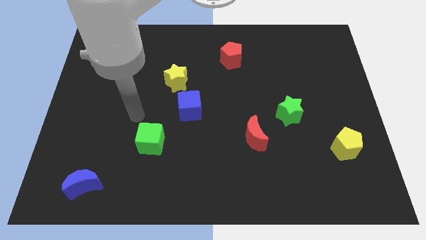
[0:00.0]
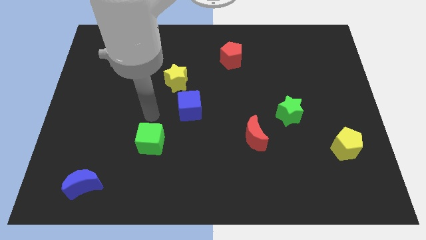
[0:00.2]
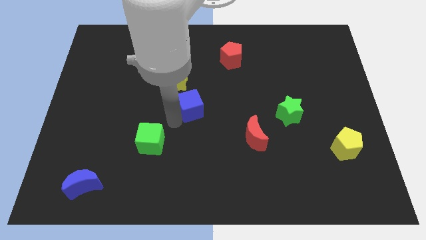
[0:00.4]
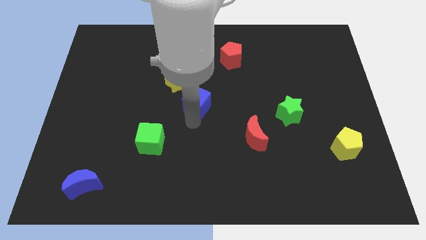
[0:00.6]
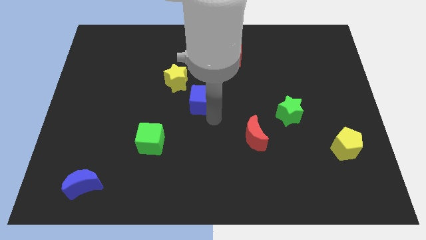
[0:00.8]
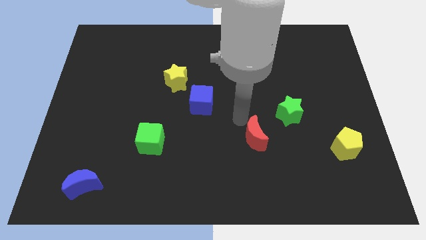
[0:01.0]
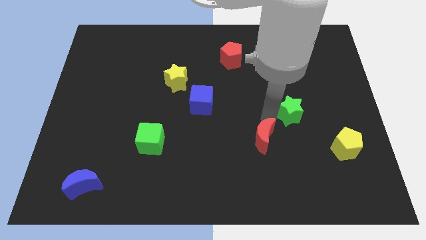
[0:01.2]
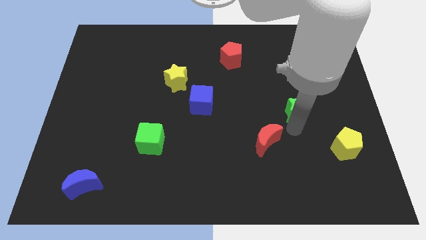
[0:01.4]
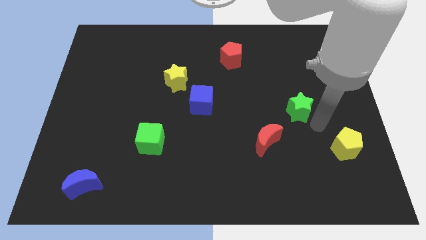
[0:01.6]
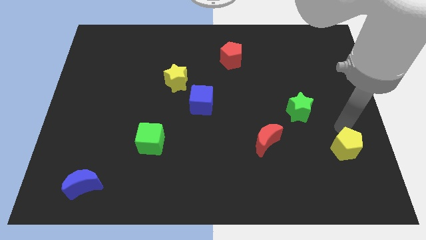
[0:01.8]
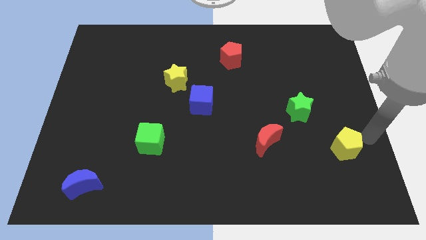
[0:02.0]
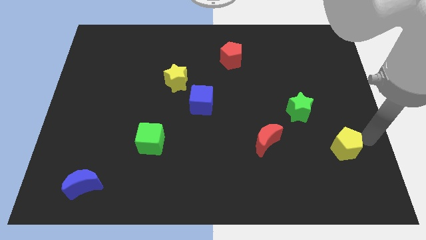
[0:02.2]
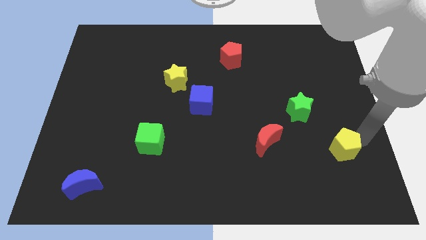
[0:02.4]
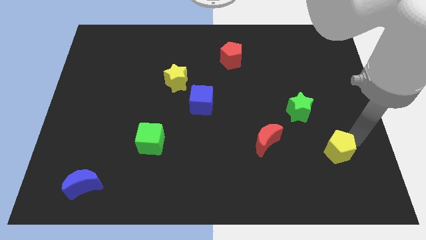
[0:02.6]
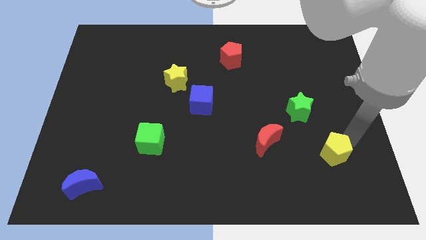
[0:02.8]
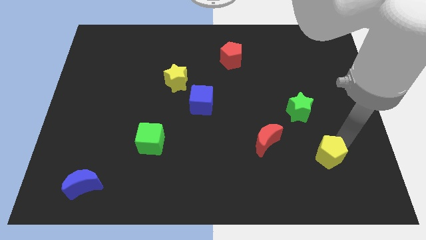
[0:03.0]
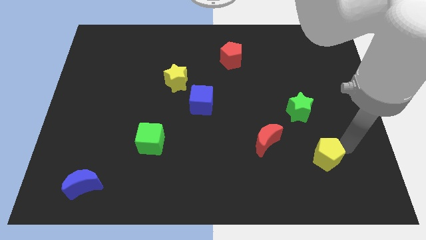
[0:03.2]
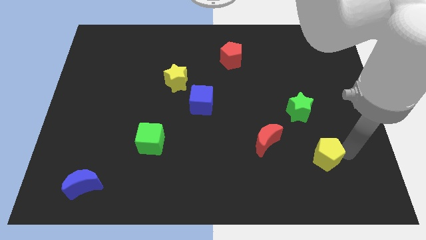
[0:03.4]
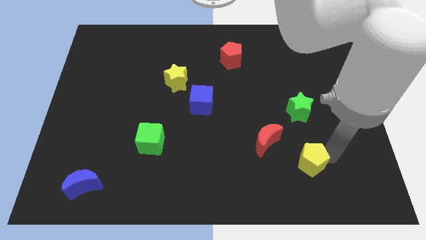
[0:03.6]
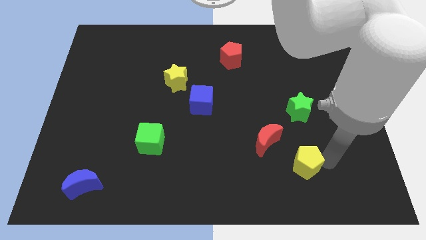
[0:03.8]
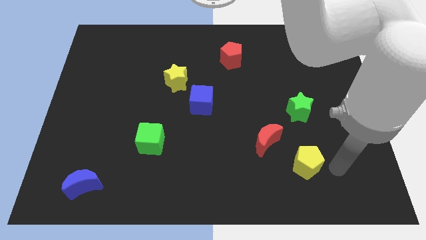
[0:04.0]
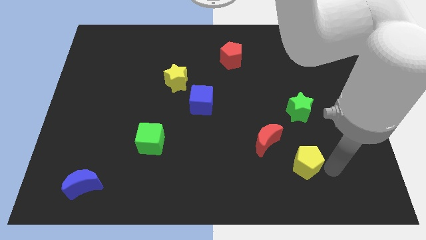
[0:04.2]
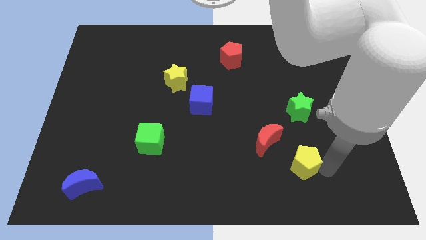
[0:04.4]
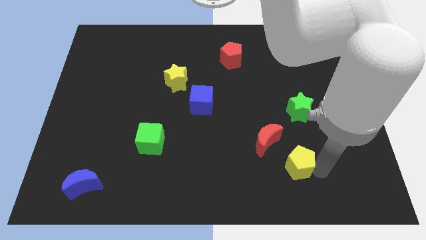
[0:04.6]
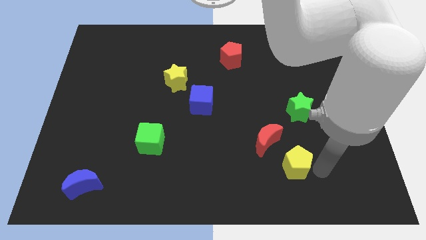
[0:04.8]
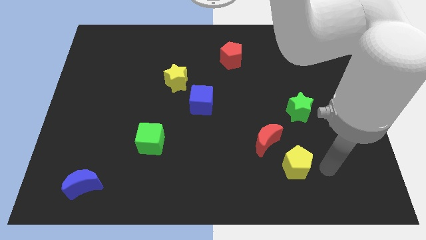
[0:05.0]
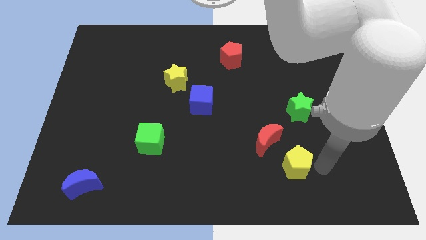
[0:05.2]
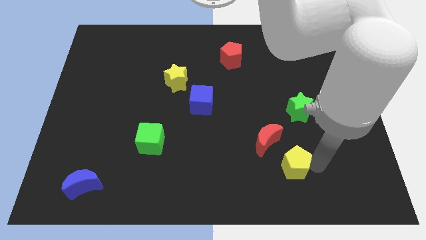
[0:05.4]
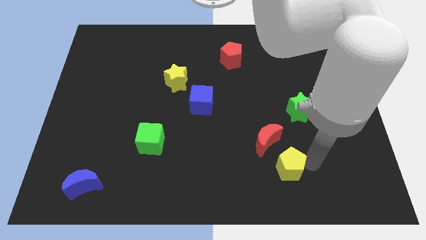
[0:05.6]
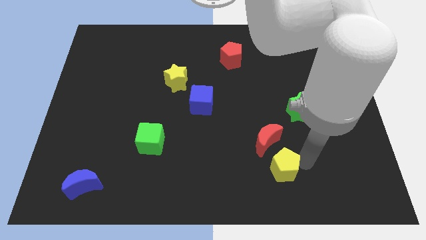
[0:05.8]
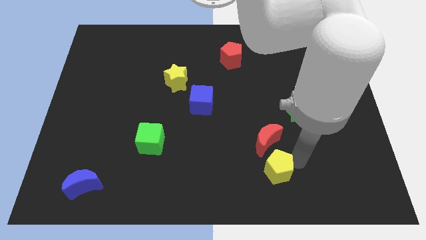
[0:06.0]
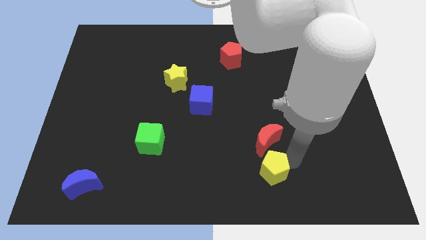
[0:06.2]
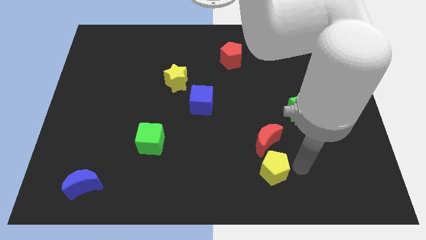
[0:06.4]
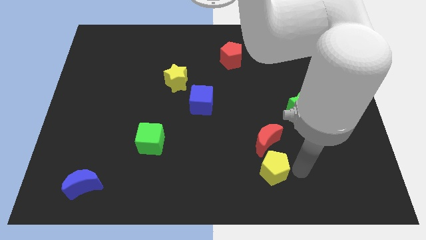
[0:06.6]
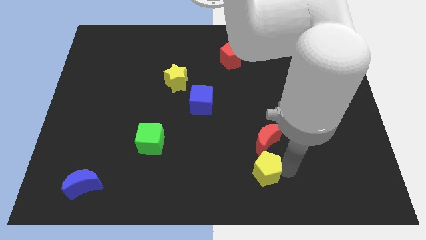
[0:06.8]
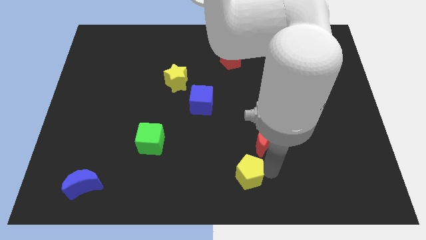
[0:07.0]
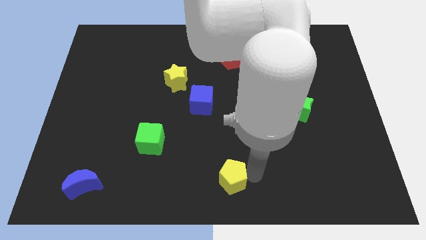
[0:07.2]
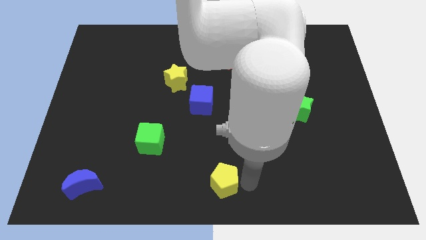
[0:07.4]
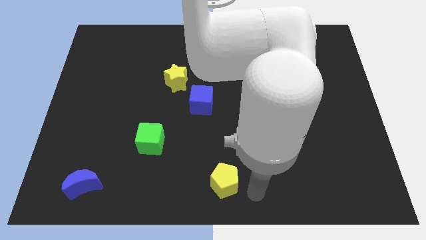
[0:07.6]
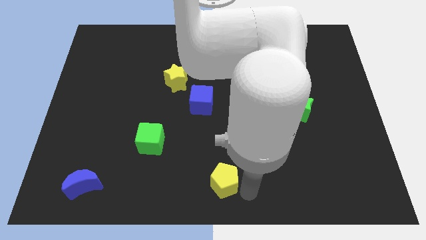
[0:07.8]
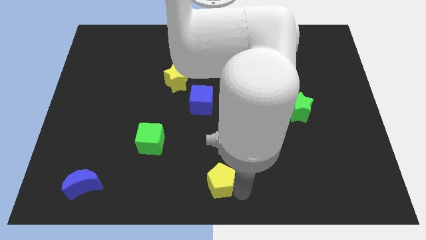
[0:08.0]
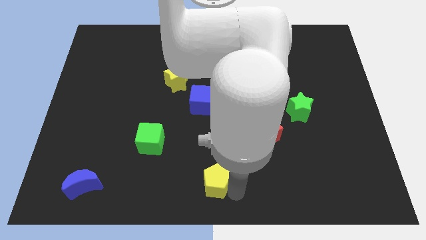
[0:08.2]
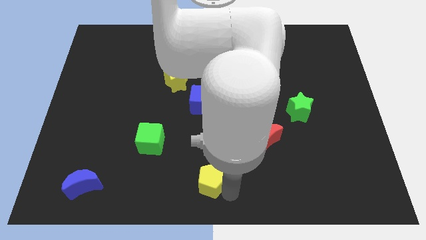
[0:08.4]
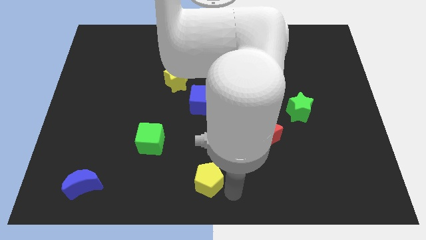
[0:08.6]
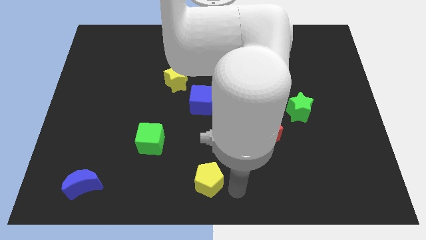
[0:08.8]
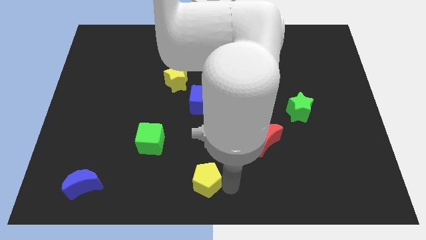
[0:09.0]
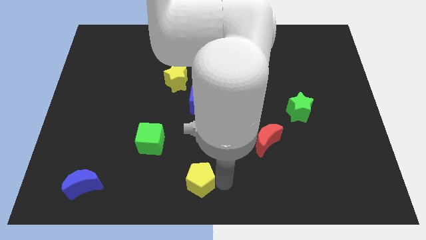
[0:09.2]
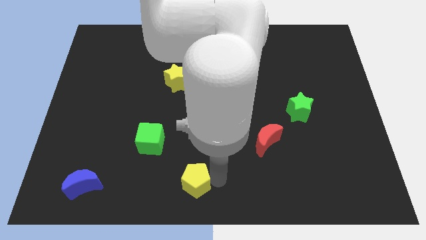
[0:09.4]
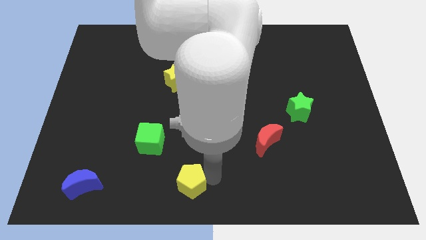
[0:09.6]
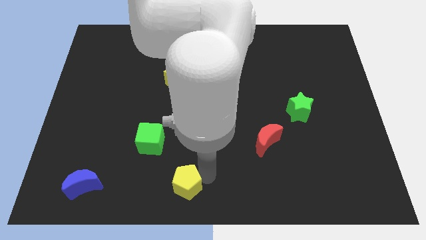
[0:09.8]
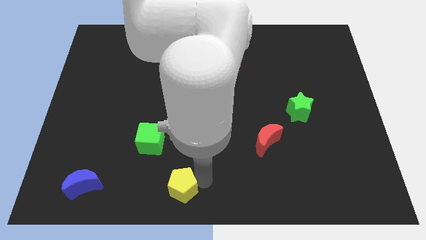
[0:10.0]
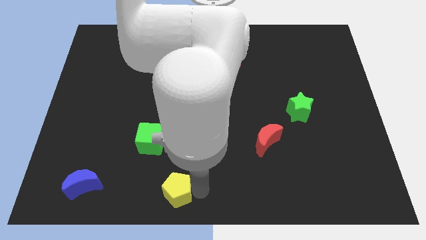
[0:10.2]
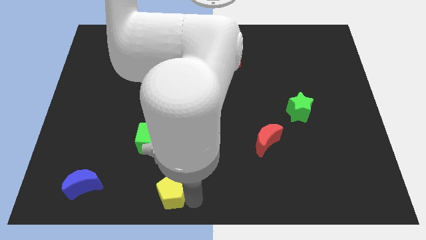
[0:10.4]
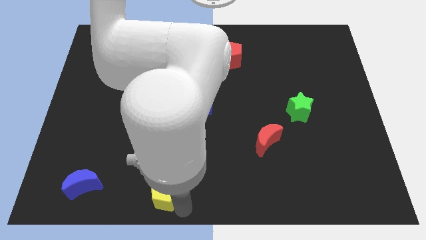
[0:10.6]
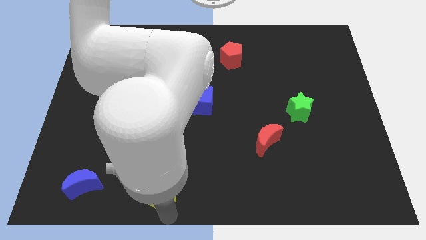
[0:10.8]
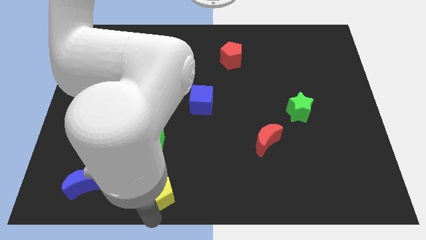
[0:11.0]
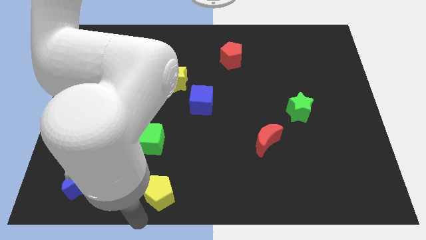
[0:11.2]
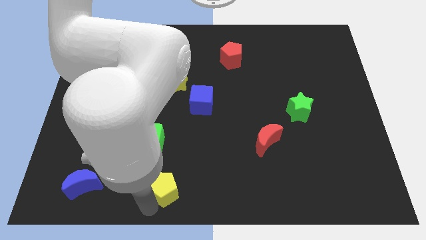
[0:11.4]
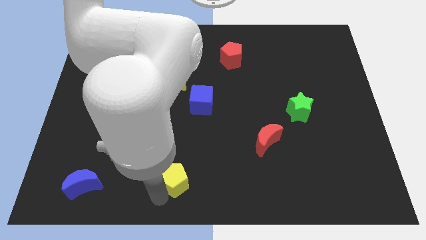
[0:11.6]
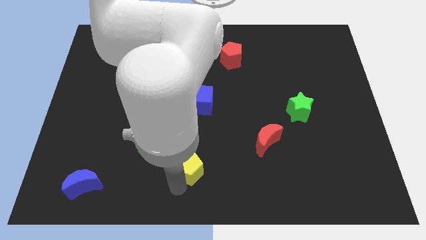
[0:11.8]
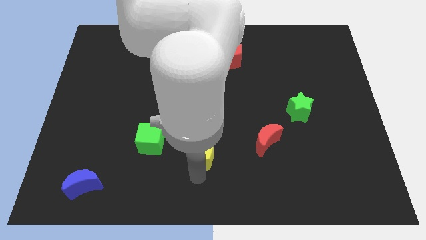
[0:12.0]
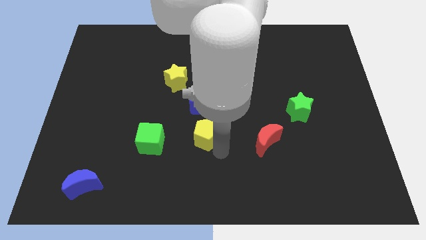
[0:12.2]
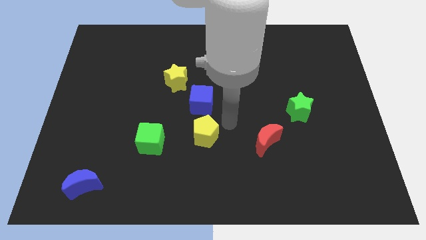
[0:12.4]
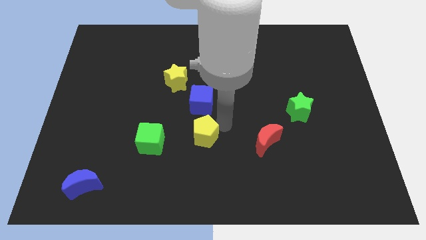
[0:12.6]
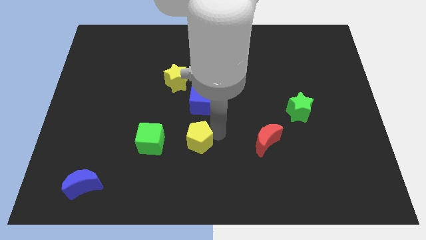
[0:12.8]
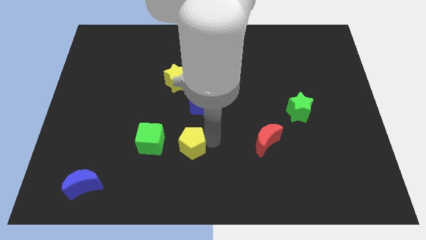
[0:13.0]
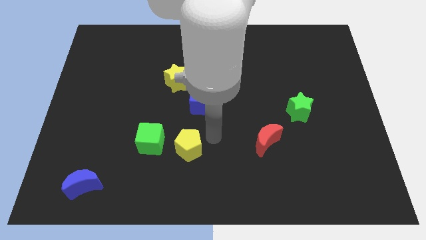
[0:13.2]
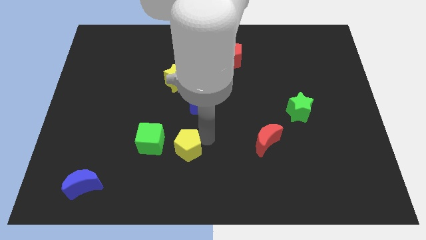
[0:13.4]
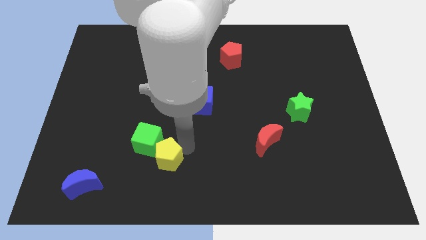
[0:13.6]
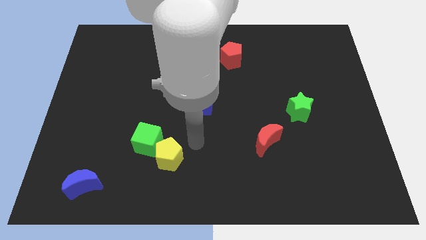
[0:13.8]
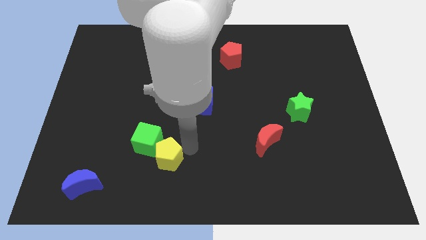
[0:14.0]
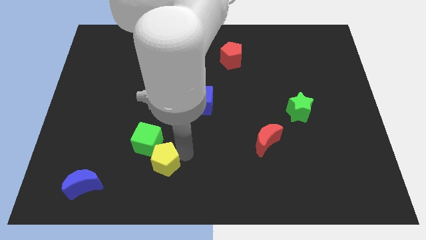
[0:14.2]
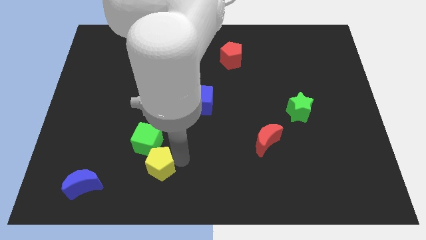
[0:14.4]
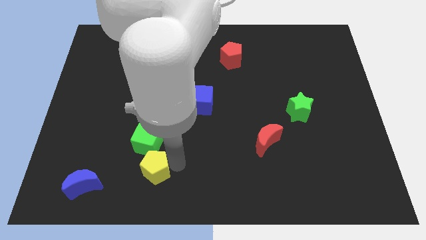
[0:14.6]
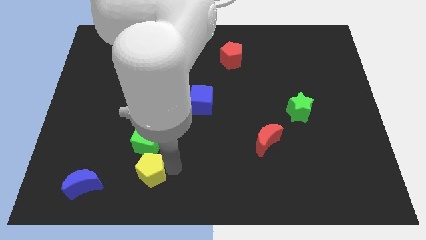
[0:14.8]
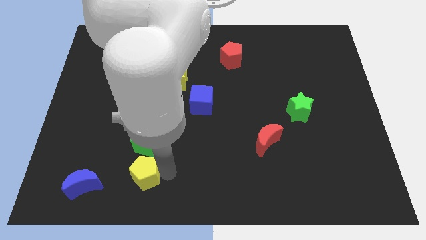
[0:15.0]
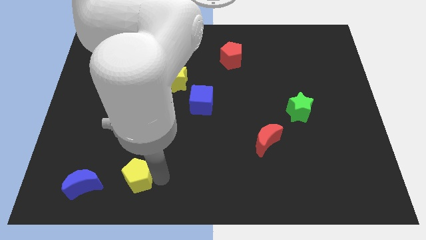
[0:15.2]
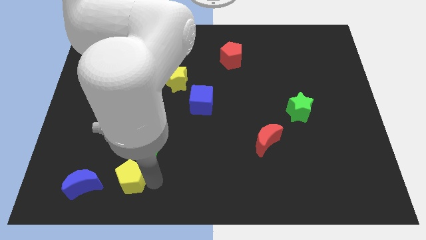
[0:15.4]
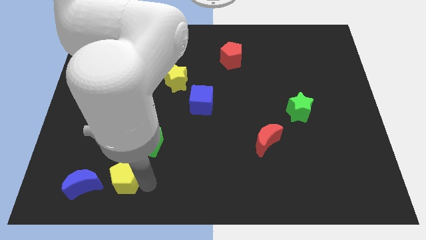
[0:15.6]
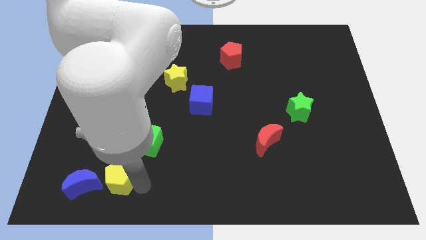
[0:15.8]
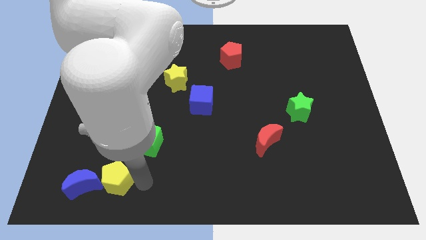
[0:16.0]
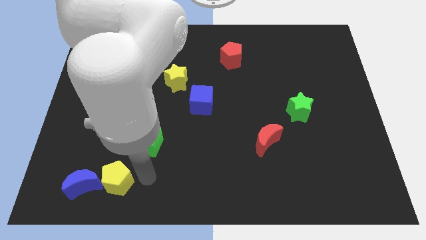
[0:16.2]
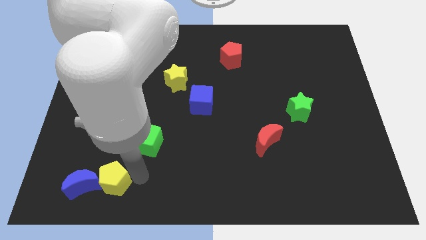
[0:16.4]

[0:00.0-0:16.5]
put the yellow pentagon to the blue moon
